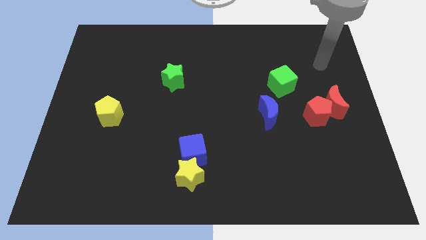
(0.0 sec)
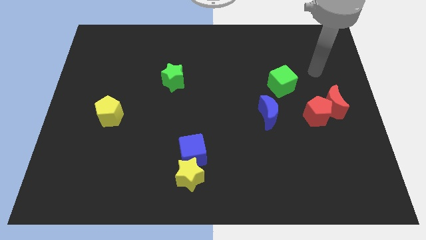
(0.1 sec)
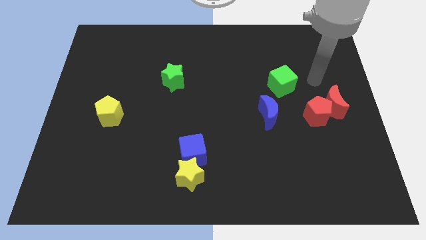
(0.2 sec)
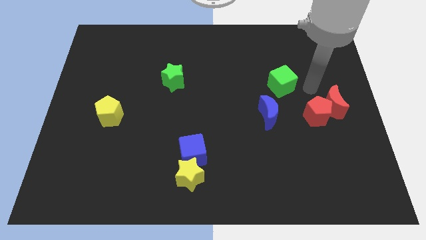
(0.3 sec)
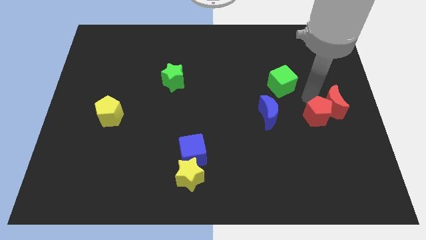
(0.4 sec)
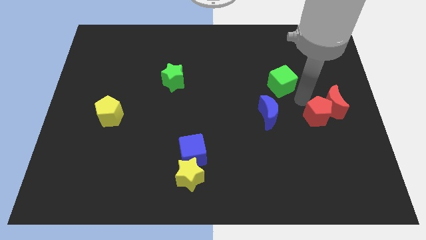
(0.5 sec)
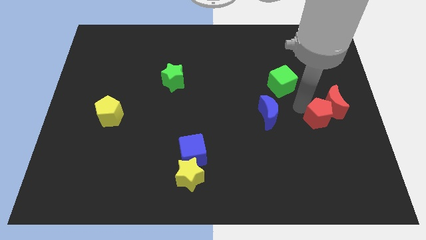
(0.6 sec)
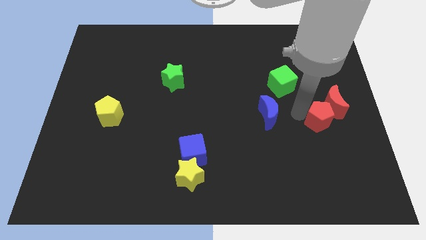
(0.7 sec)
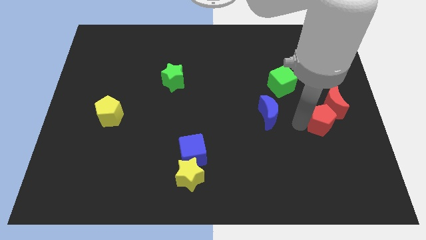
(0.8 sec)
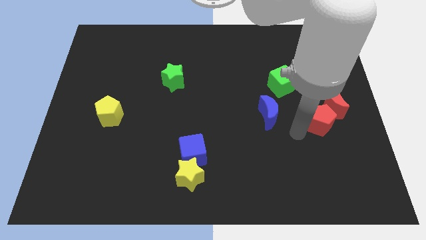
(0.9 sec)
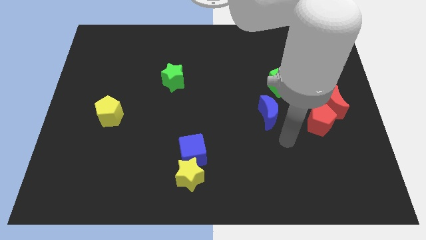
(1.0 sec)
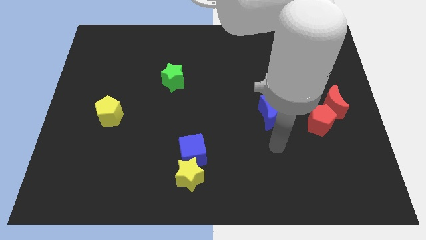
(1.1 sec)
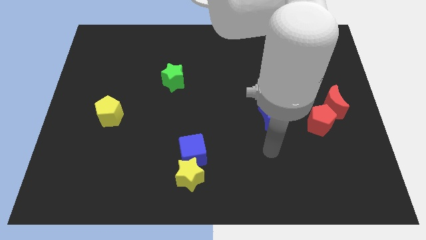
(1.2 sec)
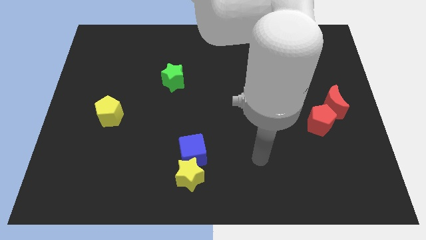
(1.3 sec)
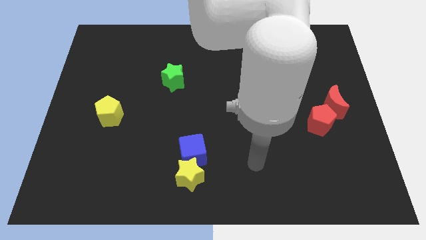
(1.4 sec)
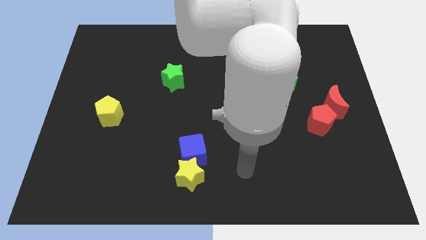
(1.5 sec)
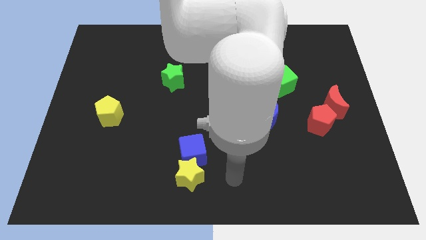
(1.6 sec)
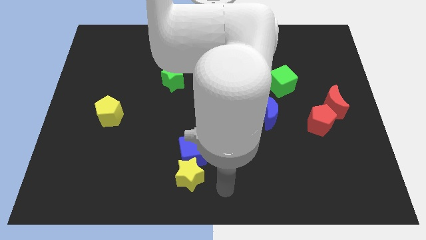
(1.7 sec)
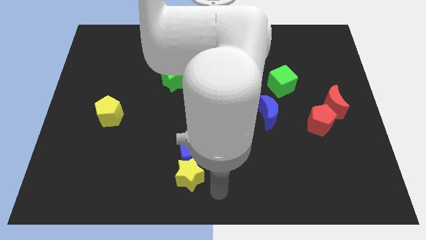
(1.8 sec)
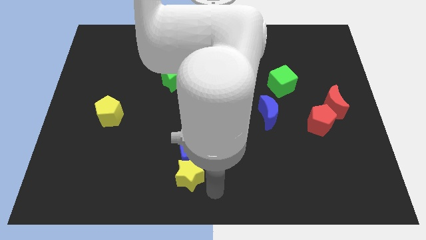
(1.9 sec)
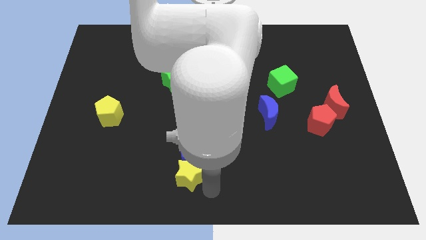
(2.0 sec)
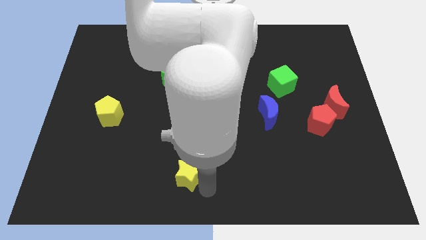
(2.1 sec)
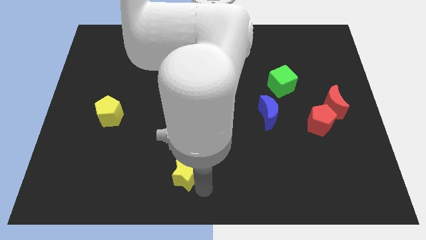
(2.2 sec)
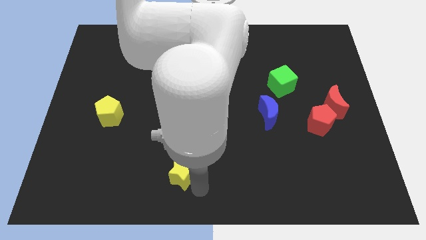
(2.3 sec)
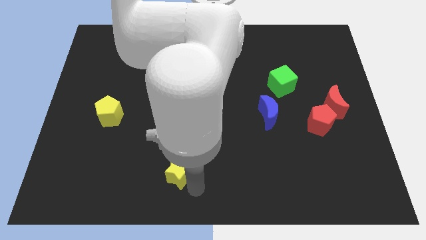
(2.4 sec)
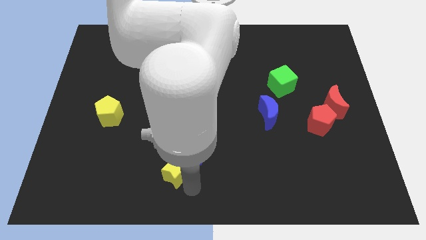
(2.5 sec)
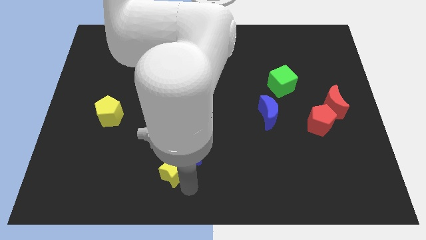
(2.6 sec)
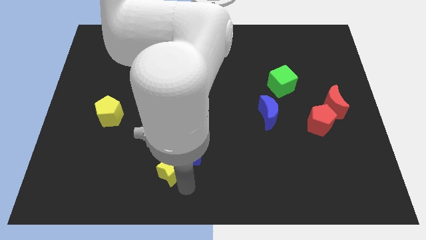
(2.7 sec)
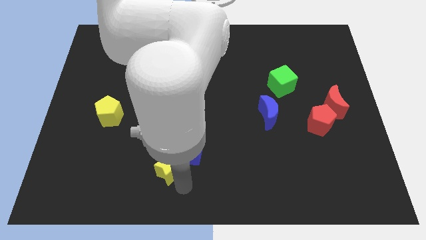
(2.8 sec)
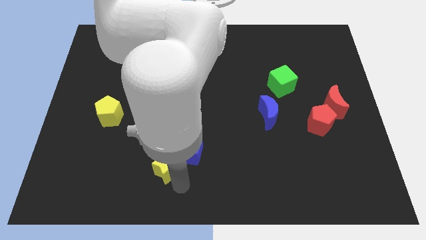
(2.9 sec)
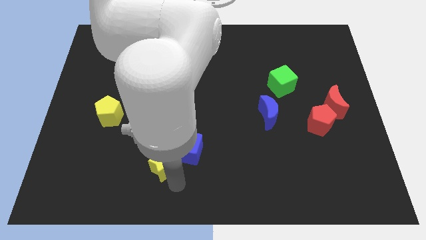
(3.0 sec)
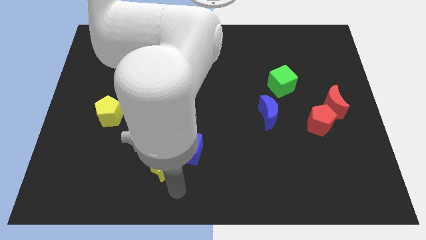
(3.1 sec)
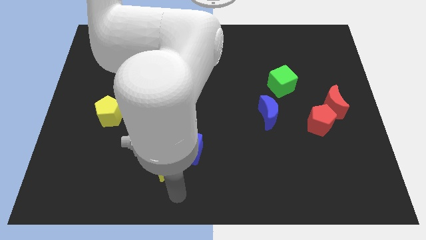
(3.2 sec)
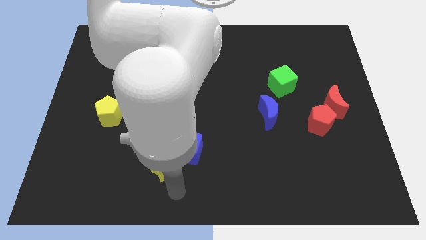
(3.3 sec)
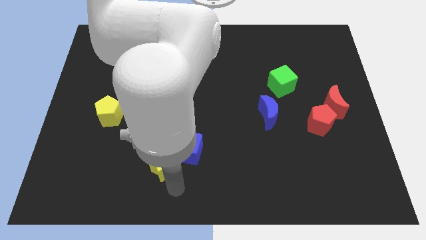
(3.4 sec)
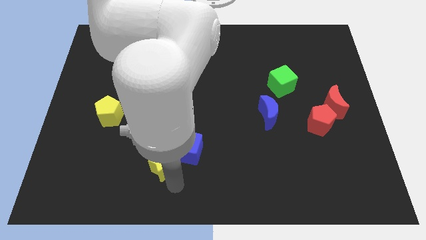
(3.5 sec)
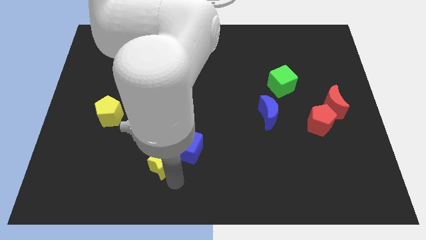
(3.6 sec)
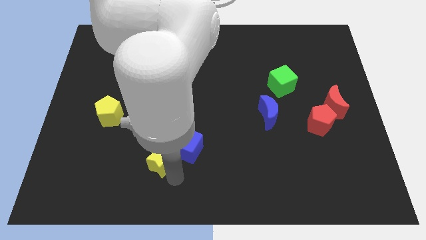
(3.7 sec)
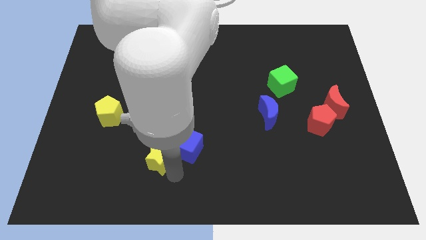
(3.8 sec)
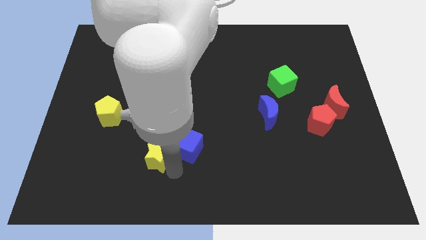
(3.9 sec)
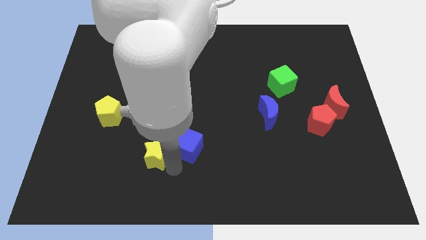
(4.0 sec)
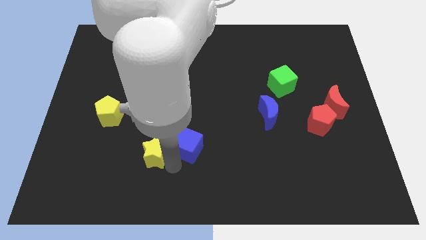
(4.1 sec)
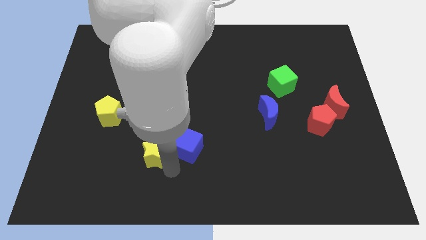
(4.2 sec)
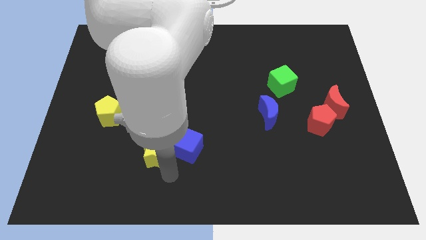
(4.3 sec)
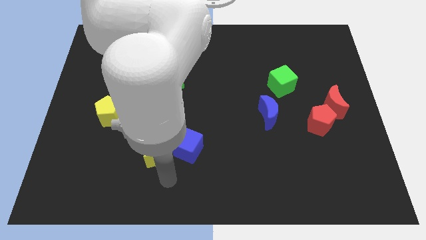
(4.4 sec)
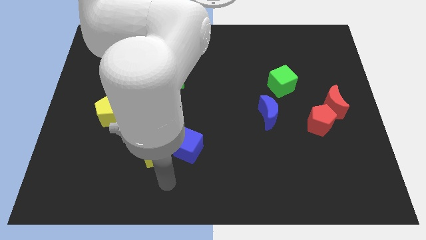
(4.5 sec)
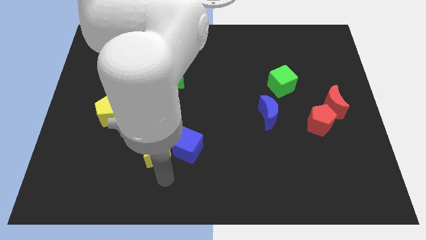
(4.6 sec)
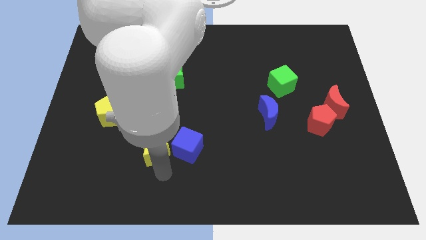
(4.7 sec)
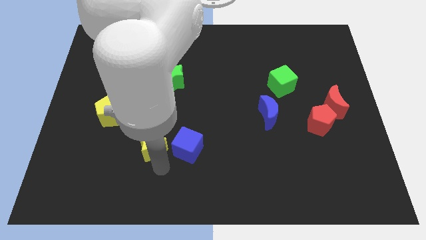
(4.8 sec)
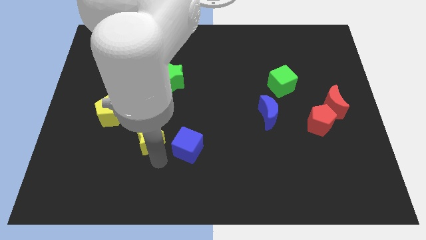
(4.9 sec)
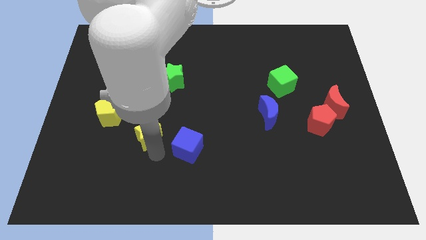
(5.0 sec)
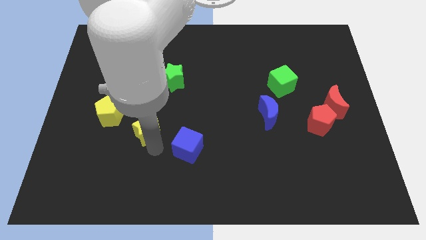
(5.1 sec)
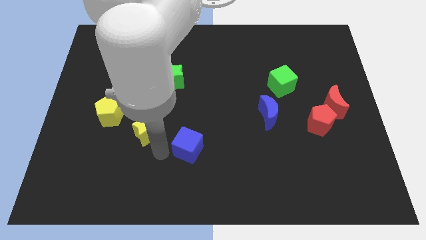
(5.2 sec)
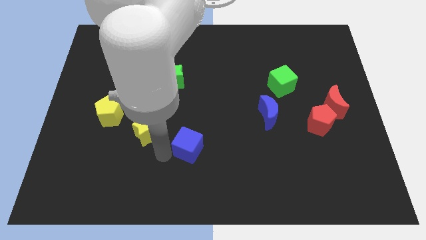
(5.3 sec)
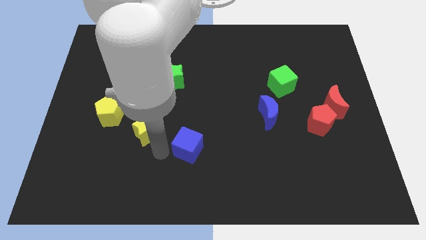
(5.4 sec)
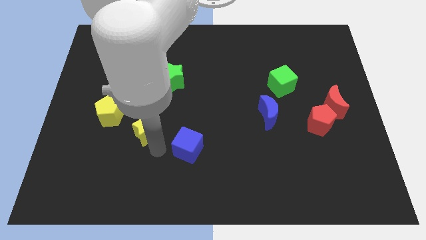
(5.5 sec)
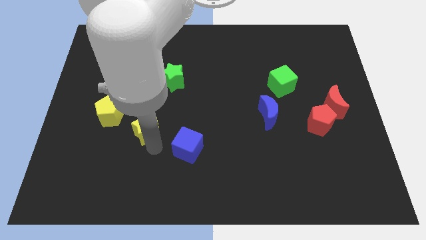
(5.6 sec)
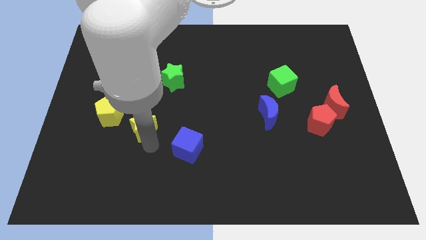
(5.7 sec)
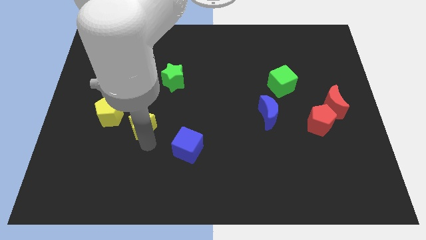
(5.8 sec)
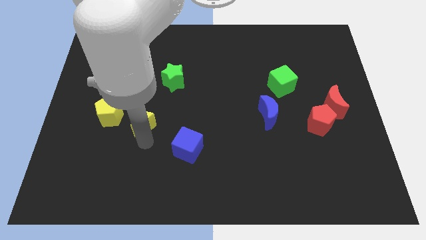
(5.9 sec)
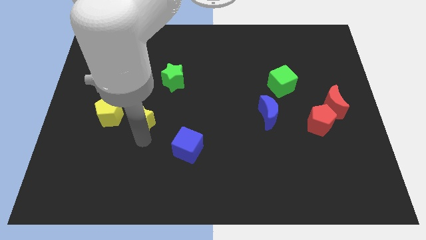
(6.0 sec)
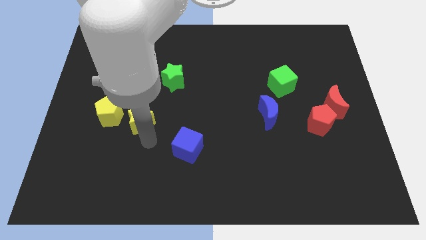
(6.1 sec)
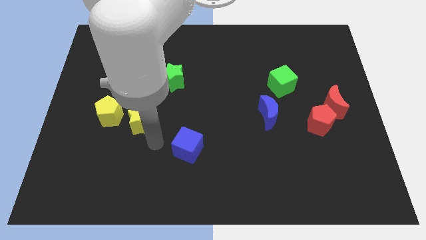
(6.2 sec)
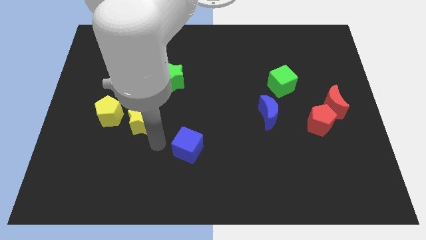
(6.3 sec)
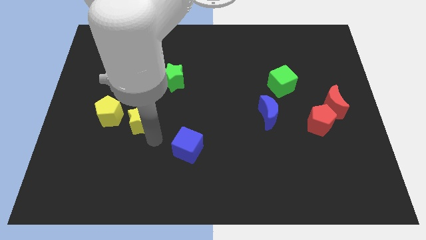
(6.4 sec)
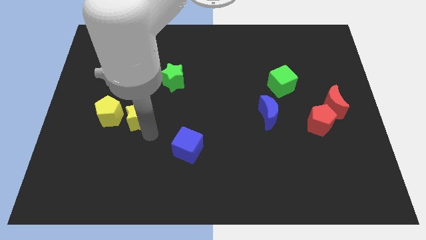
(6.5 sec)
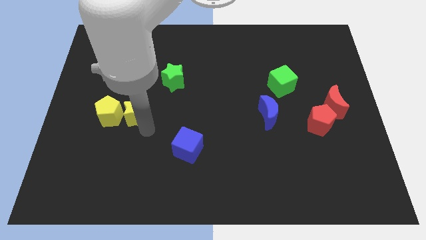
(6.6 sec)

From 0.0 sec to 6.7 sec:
slide the yellow star upwards and left

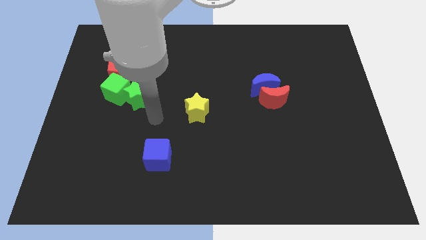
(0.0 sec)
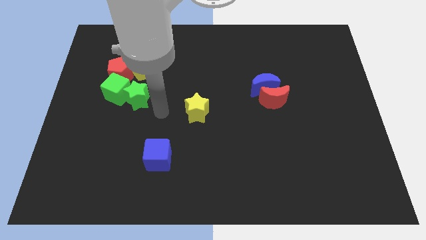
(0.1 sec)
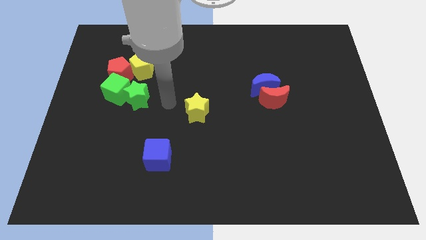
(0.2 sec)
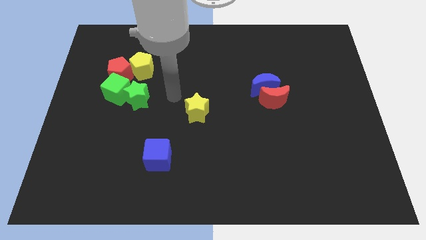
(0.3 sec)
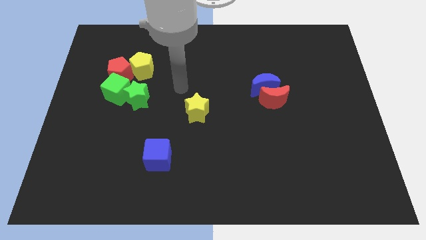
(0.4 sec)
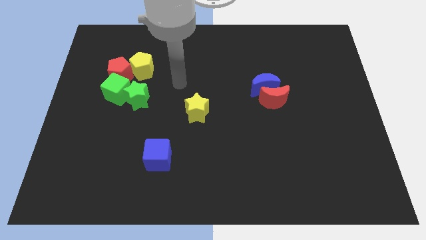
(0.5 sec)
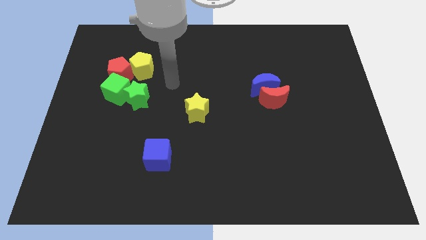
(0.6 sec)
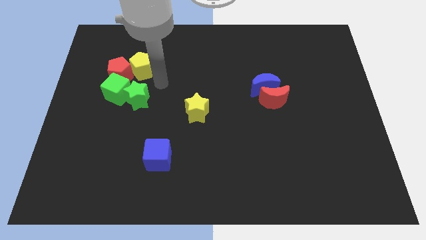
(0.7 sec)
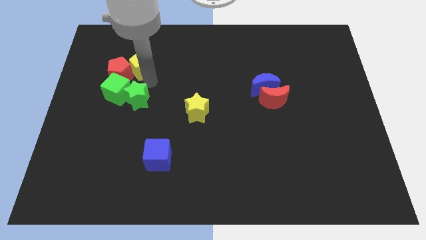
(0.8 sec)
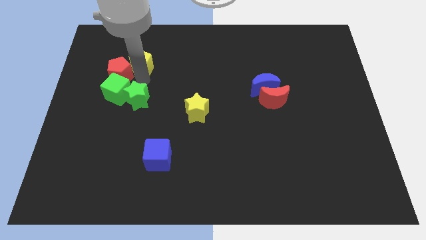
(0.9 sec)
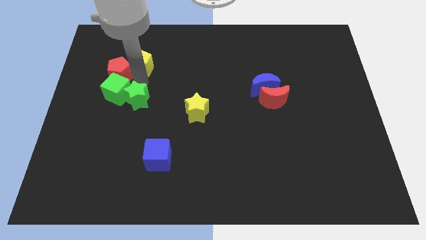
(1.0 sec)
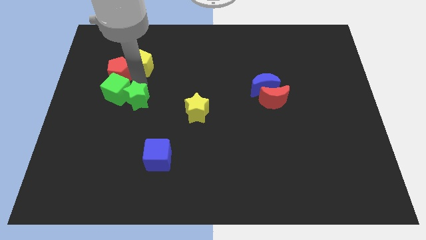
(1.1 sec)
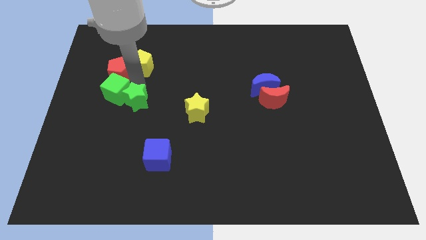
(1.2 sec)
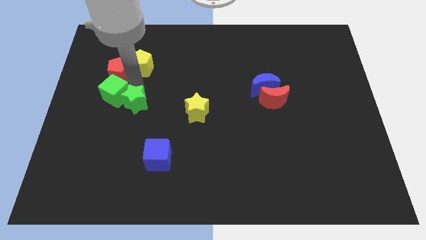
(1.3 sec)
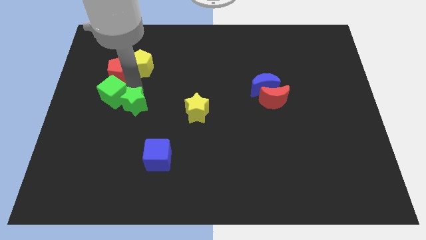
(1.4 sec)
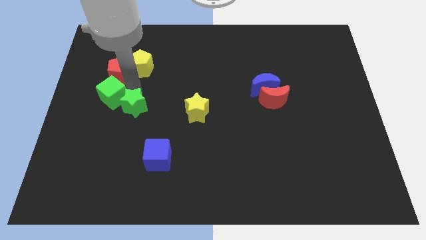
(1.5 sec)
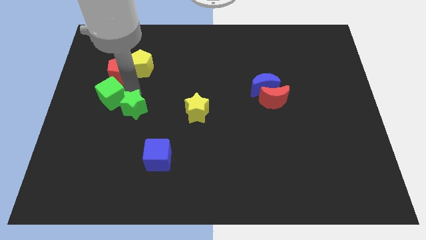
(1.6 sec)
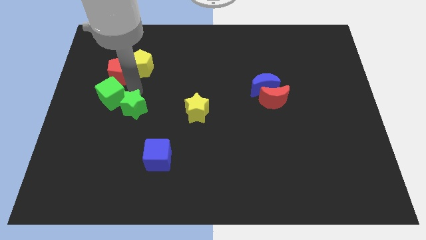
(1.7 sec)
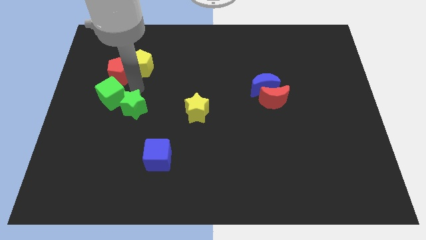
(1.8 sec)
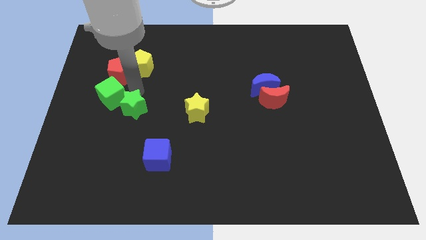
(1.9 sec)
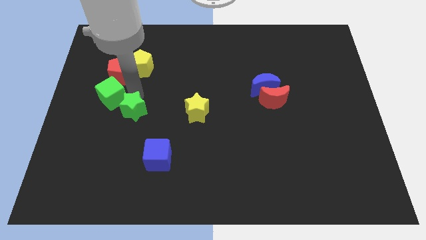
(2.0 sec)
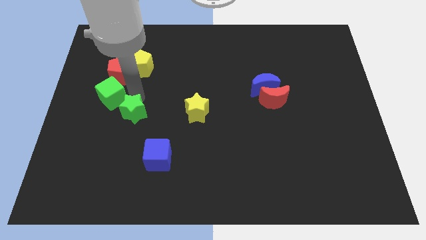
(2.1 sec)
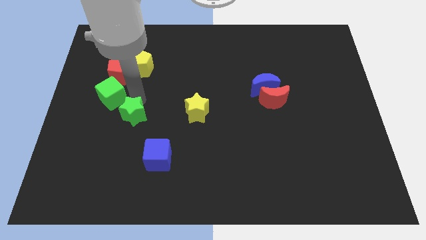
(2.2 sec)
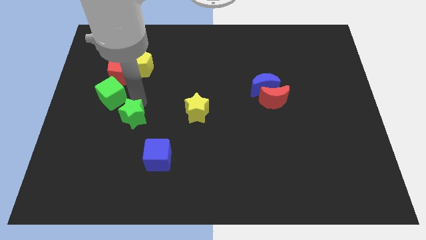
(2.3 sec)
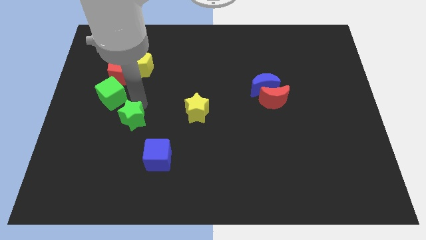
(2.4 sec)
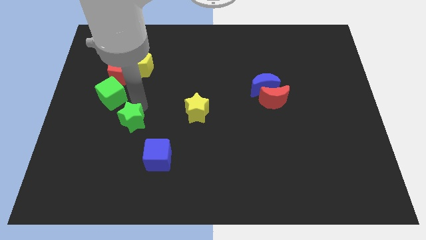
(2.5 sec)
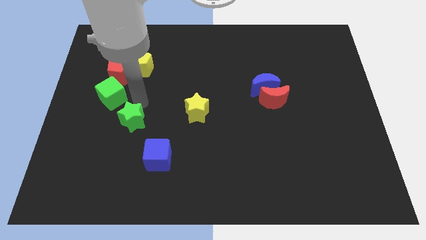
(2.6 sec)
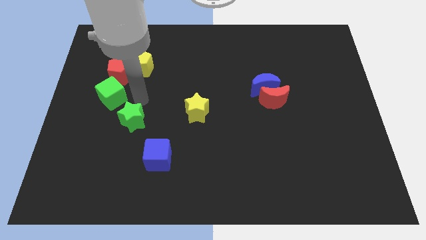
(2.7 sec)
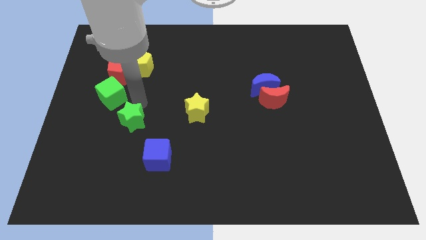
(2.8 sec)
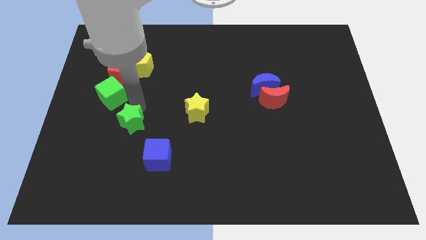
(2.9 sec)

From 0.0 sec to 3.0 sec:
slightly push the green star downwards
